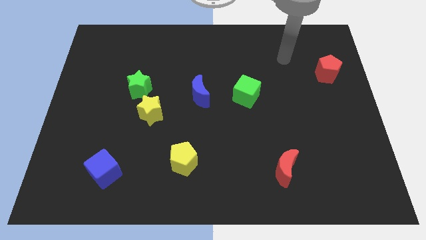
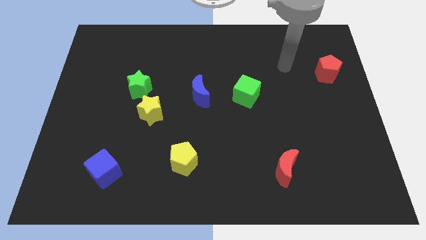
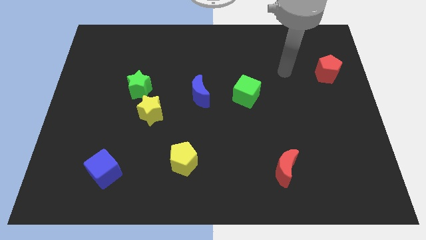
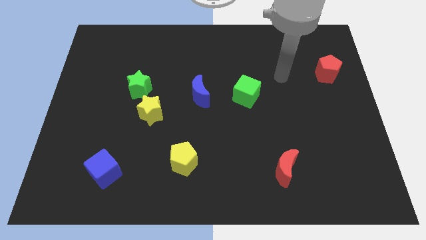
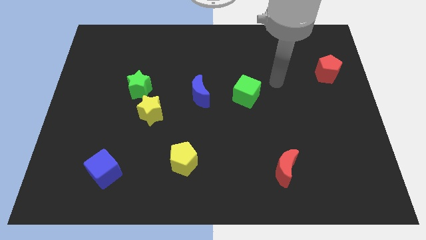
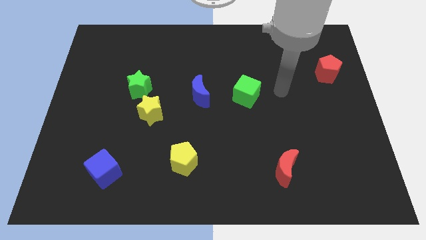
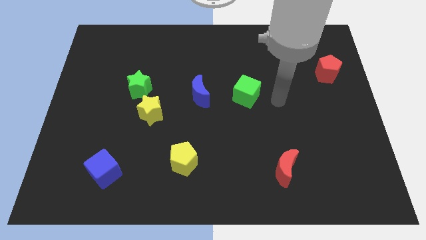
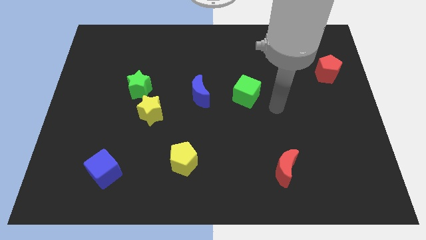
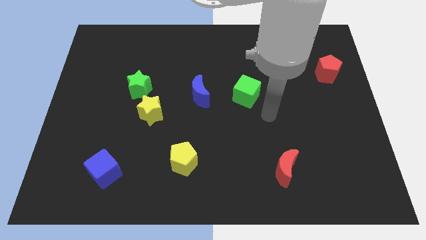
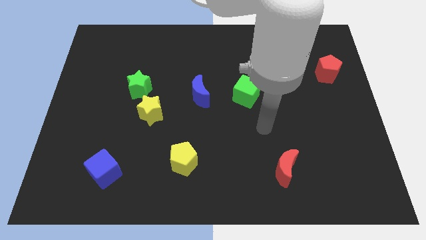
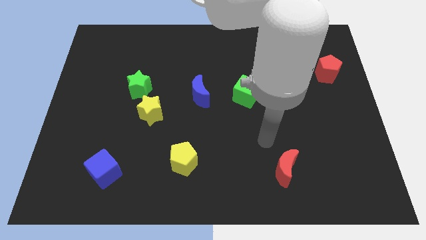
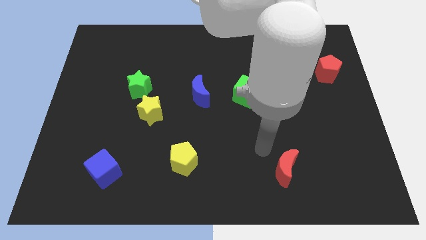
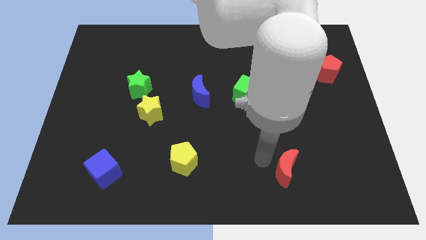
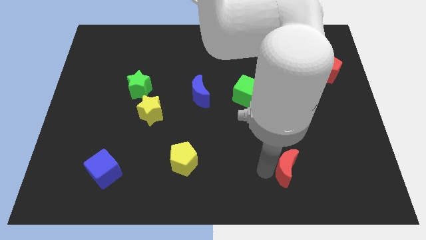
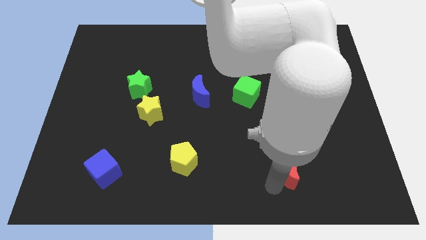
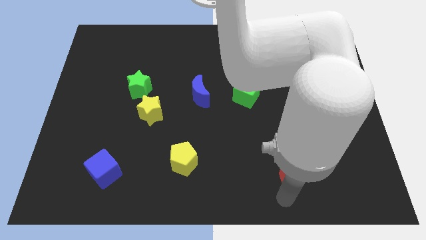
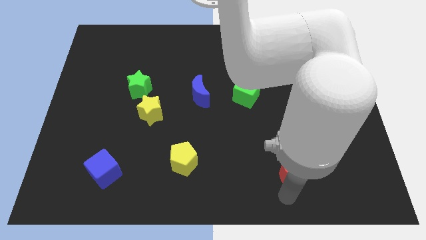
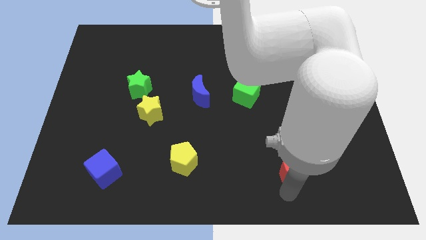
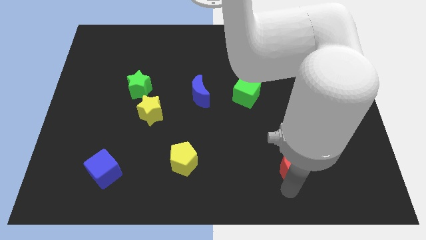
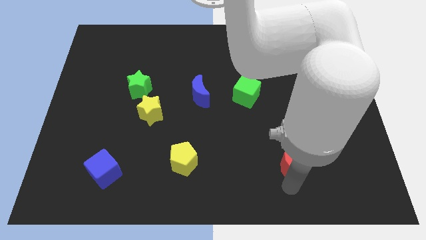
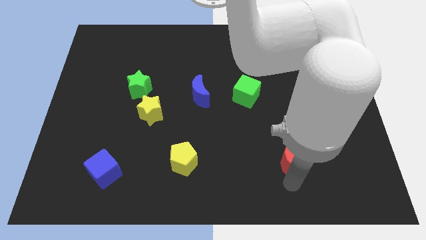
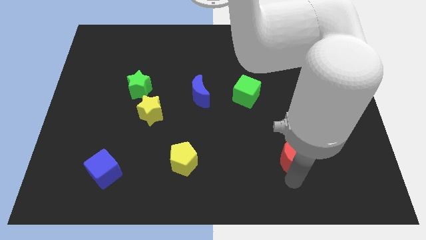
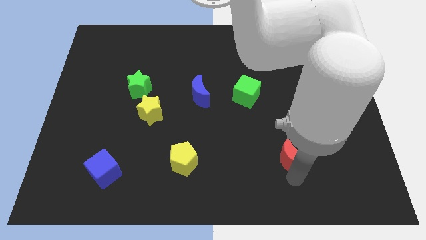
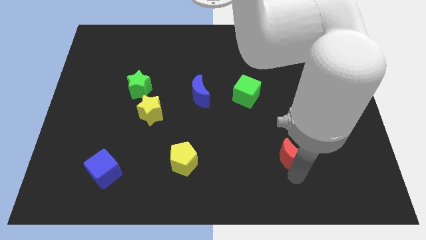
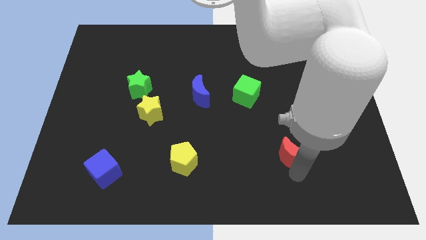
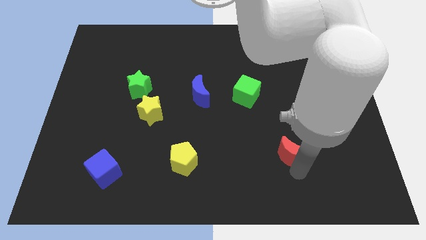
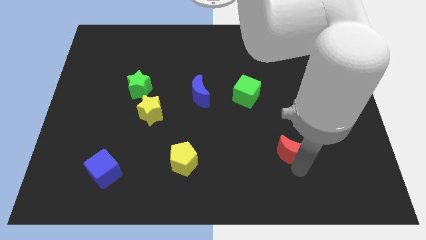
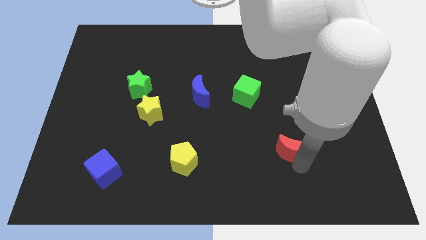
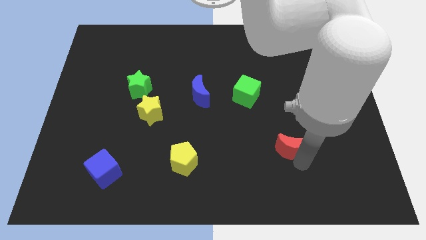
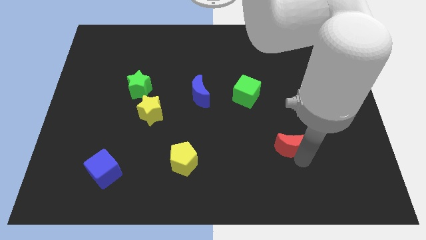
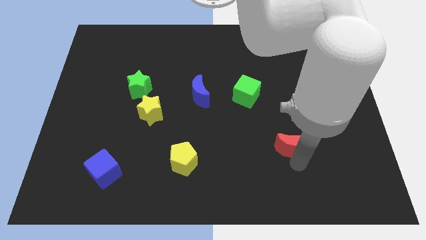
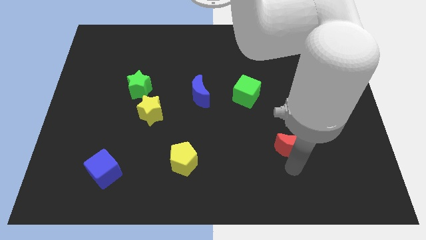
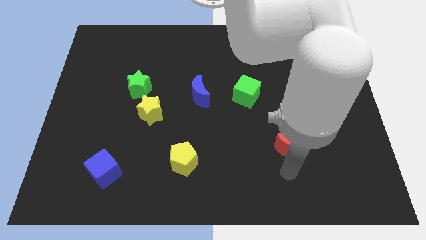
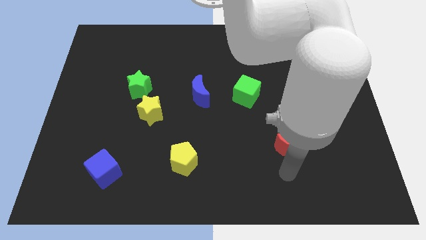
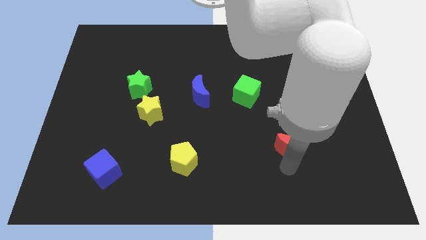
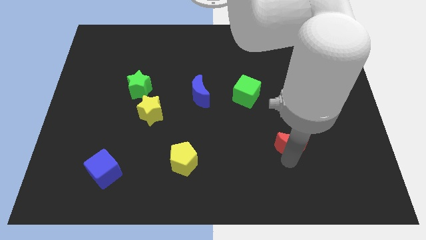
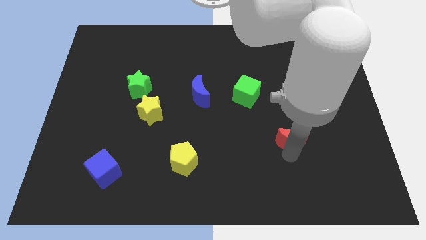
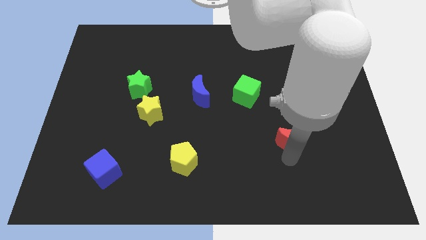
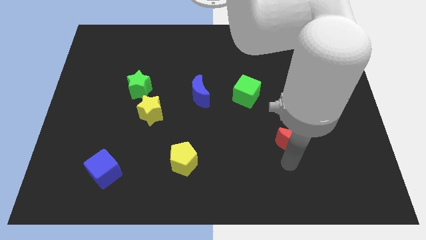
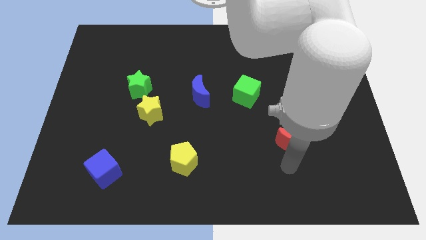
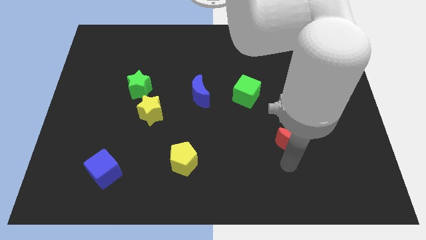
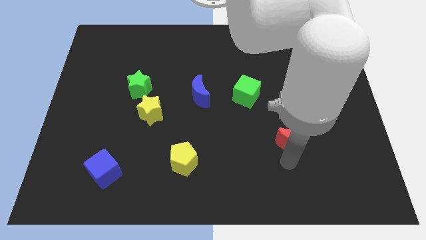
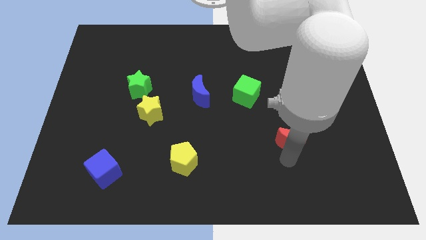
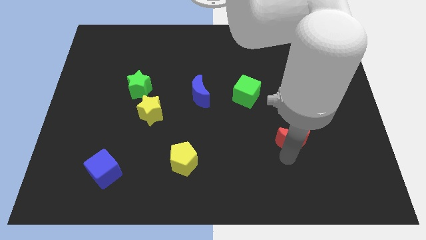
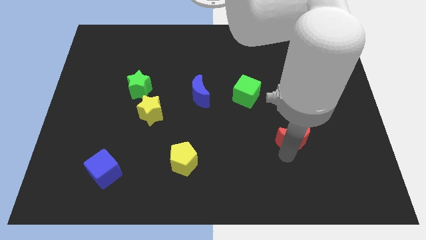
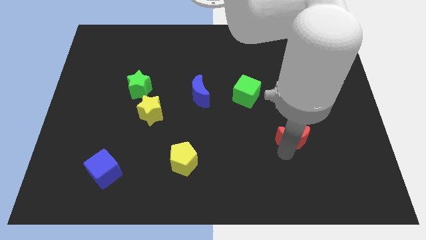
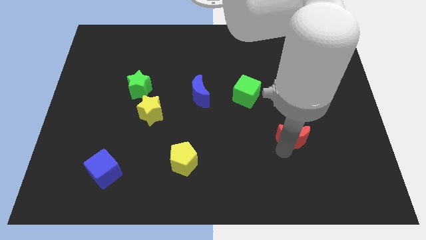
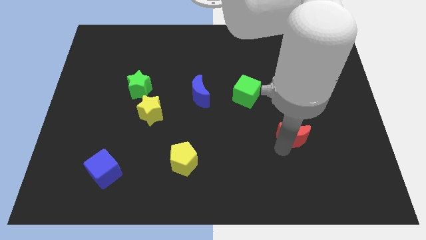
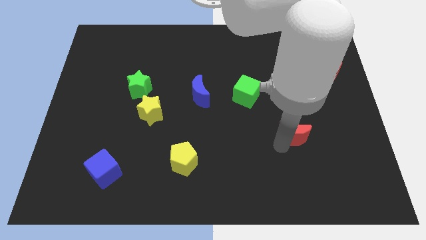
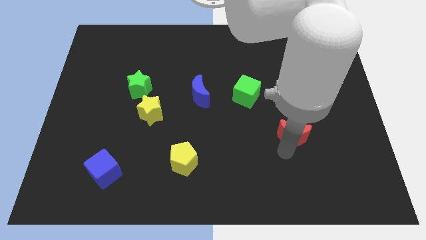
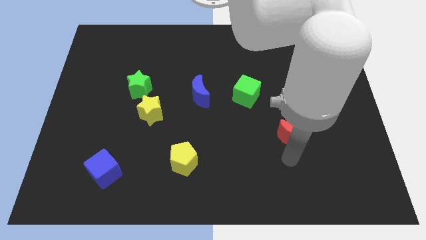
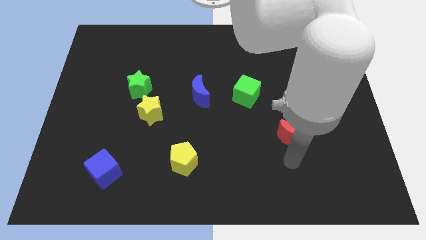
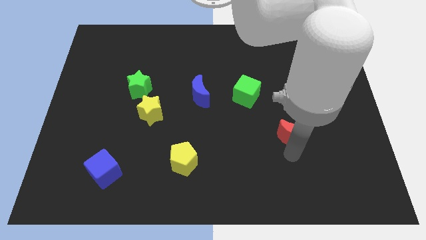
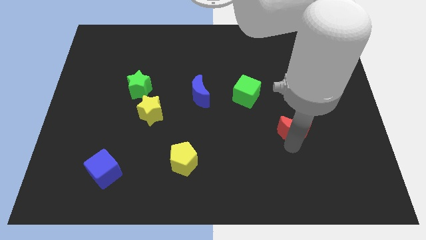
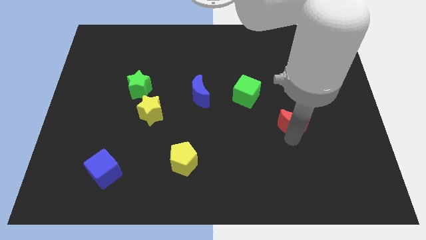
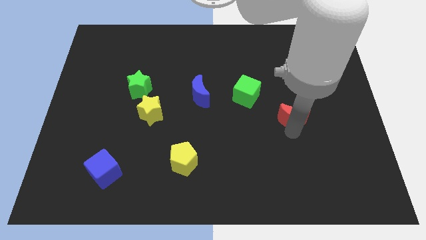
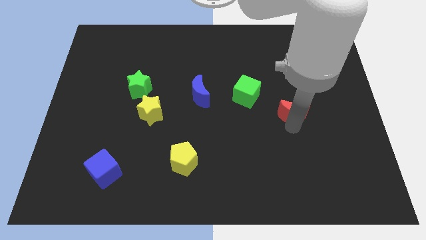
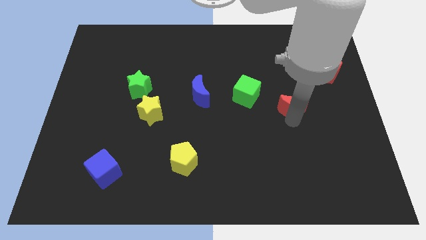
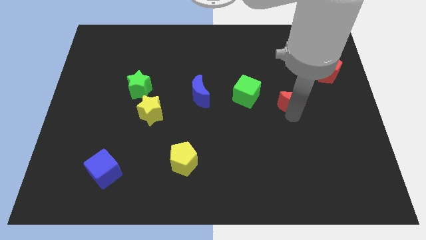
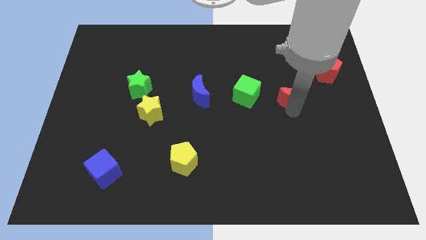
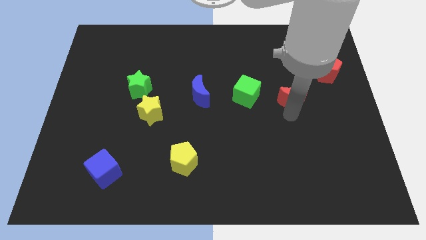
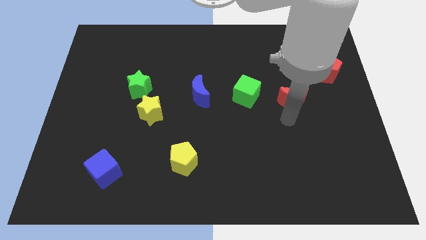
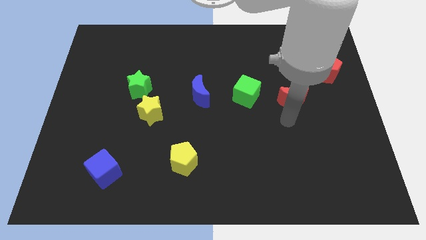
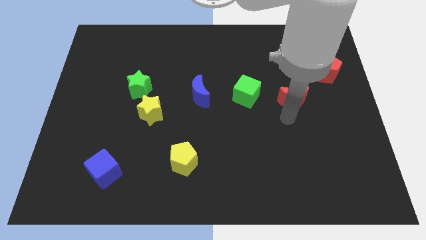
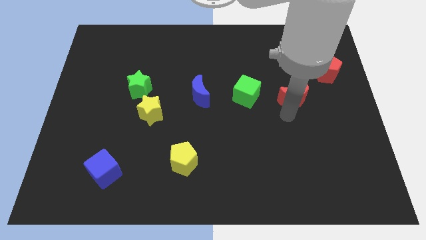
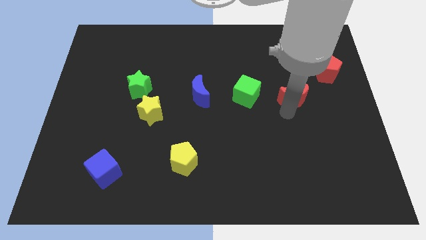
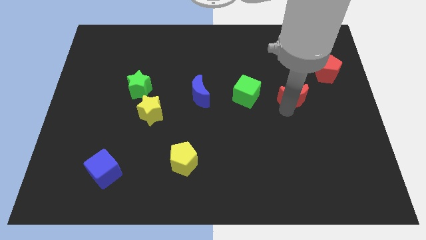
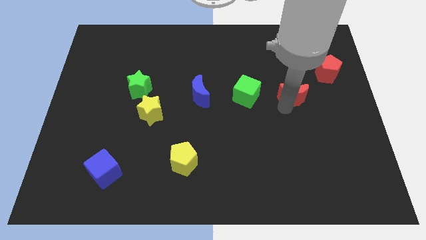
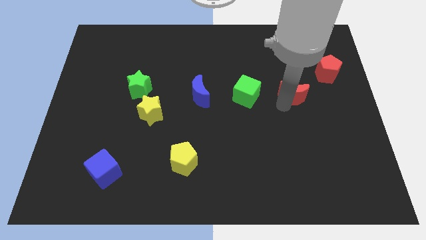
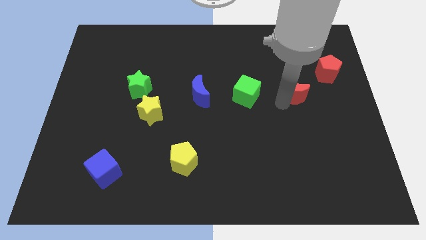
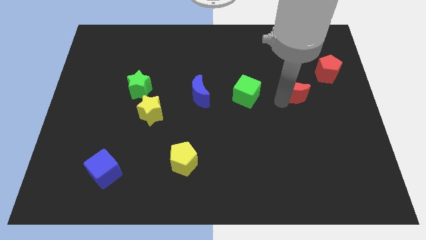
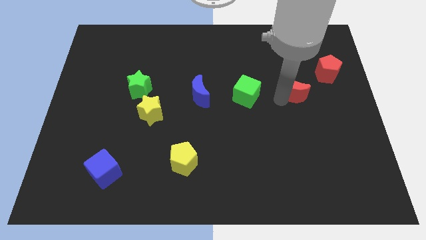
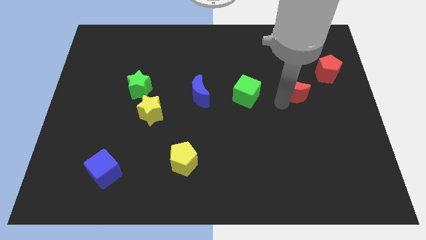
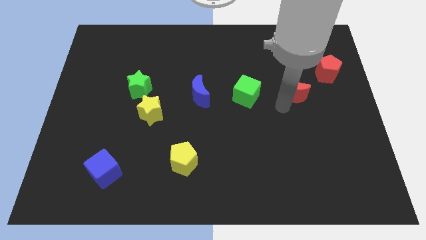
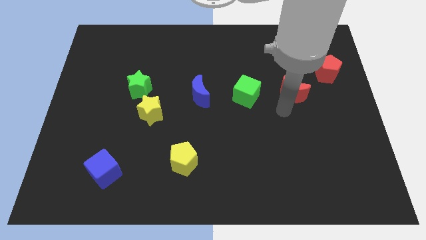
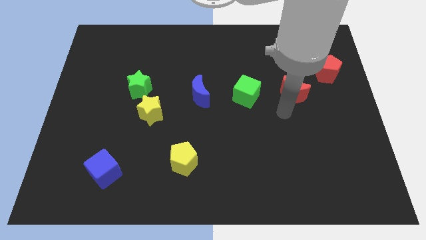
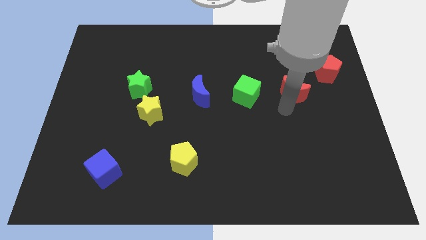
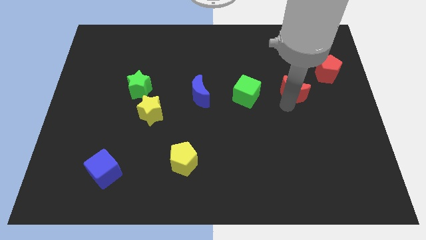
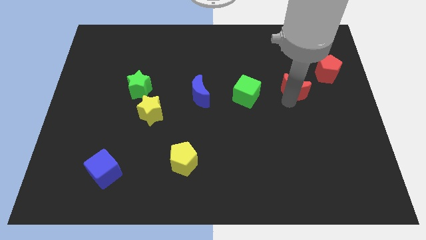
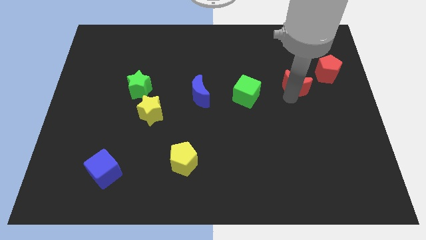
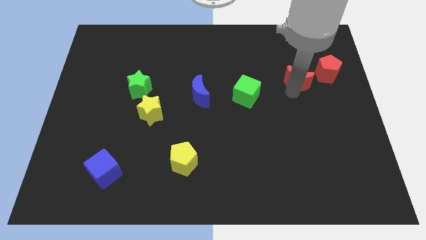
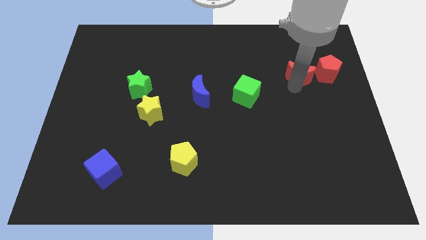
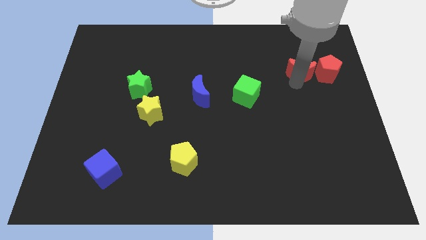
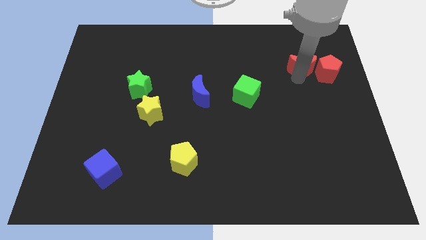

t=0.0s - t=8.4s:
move the red moon diagonally up and to the left of the red pentagon
